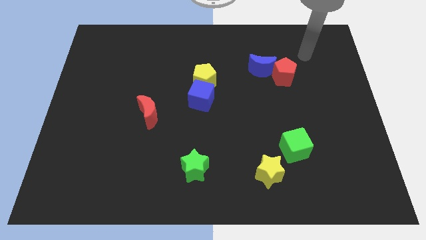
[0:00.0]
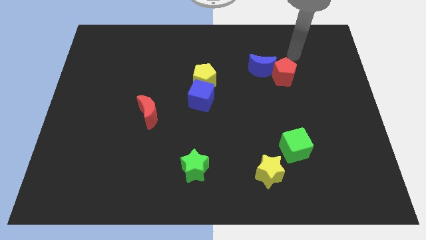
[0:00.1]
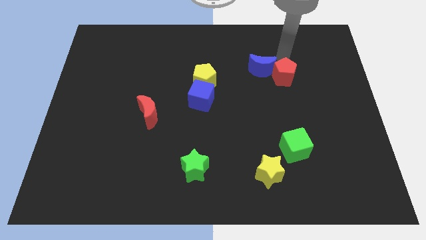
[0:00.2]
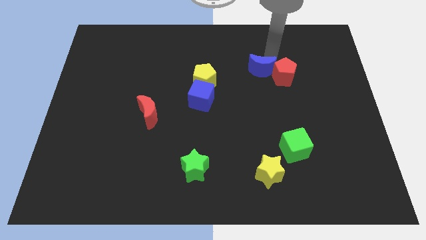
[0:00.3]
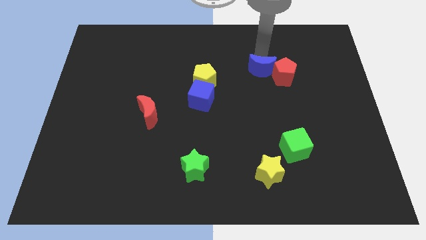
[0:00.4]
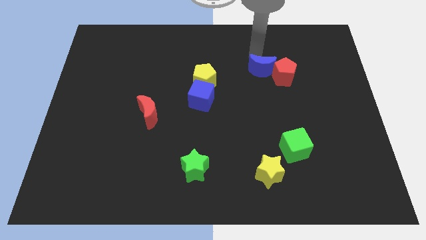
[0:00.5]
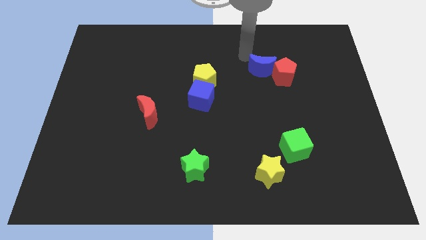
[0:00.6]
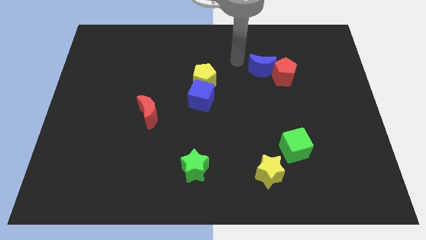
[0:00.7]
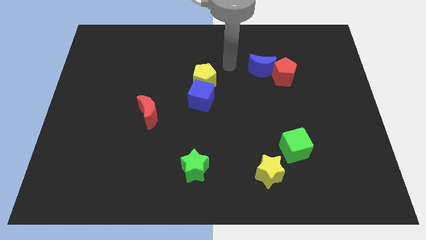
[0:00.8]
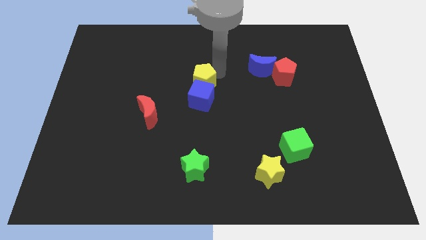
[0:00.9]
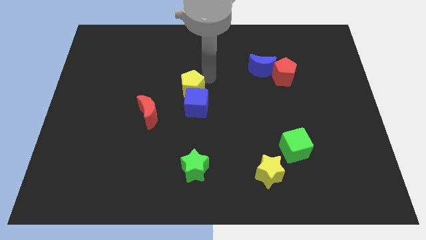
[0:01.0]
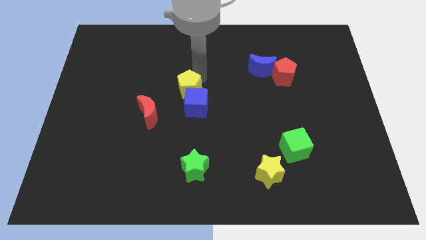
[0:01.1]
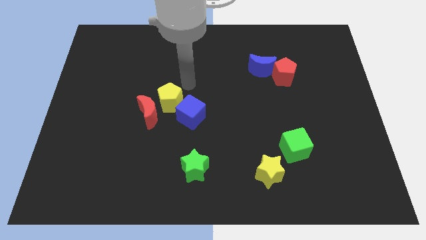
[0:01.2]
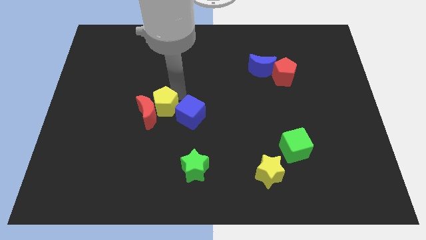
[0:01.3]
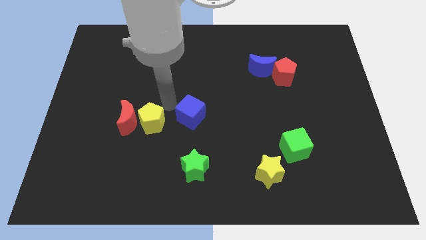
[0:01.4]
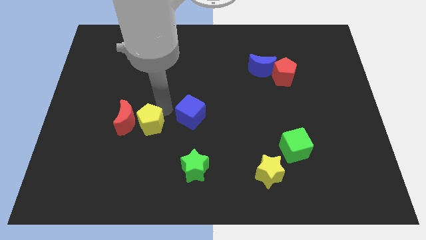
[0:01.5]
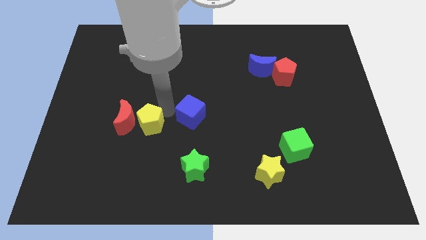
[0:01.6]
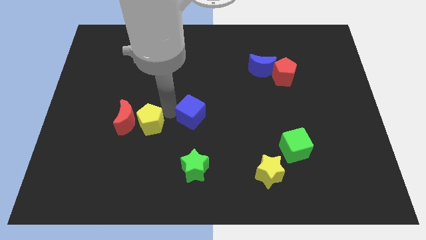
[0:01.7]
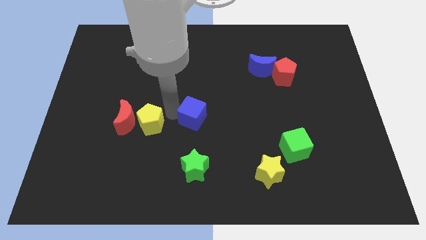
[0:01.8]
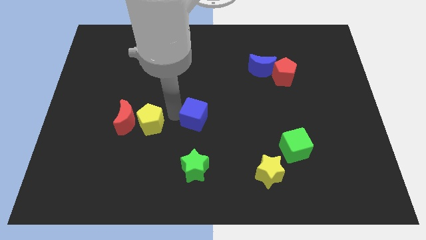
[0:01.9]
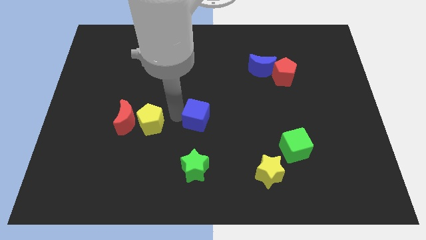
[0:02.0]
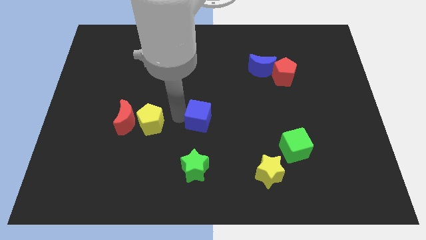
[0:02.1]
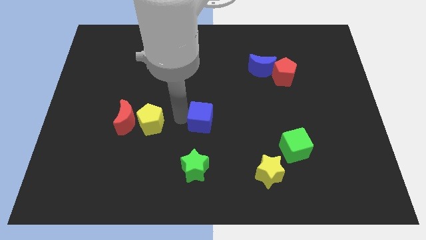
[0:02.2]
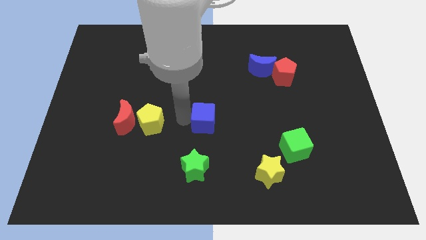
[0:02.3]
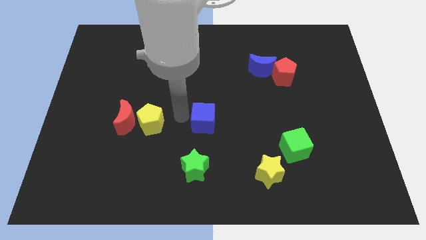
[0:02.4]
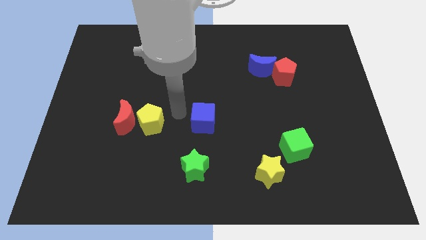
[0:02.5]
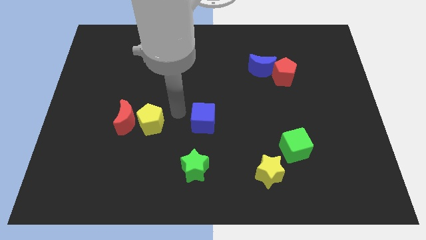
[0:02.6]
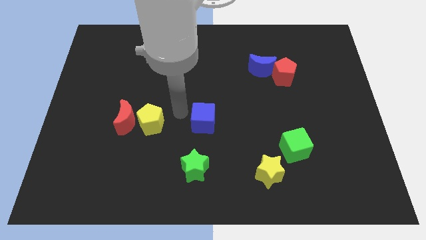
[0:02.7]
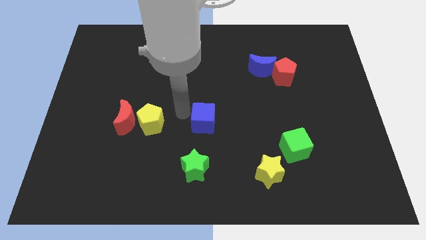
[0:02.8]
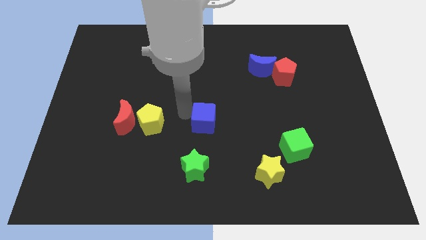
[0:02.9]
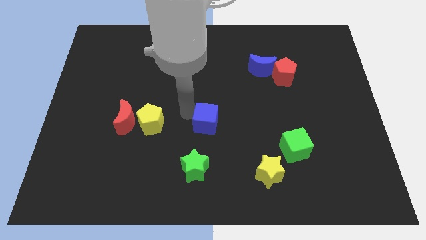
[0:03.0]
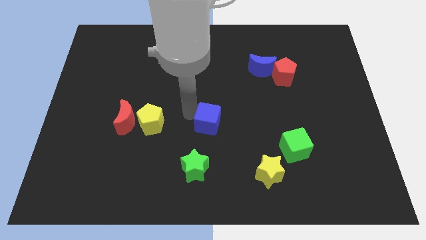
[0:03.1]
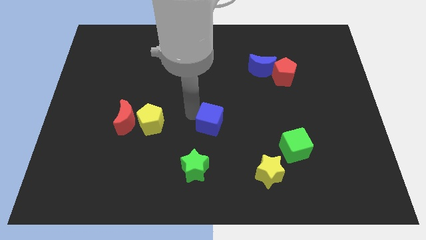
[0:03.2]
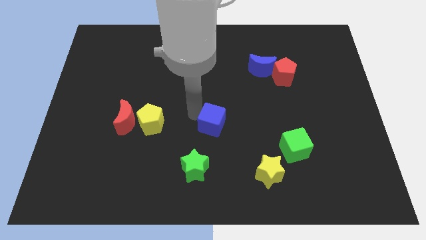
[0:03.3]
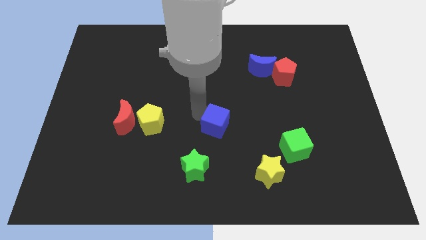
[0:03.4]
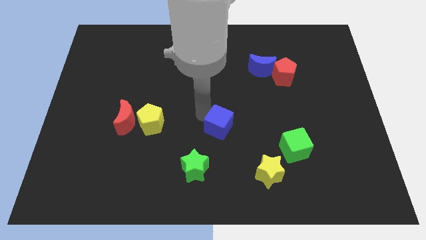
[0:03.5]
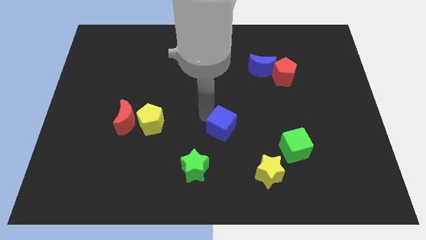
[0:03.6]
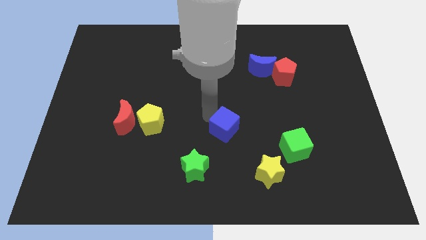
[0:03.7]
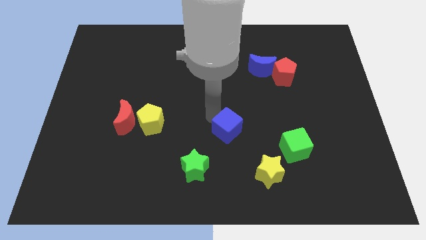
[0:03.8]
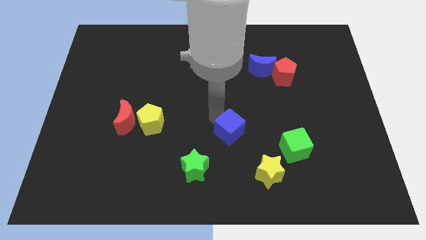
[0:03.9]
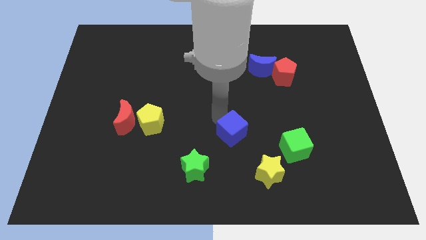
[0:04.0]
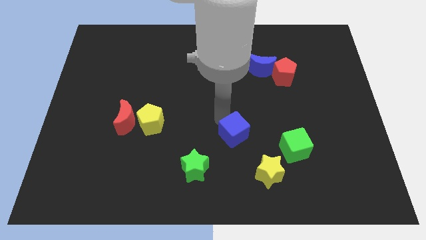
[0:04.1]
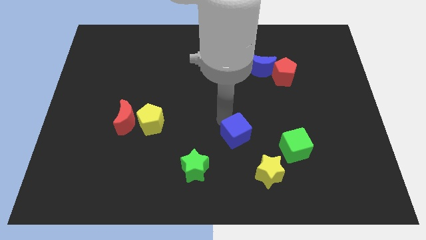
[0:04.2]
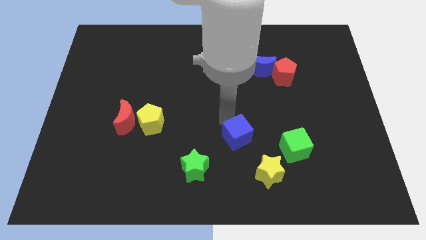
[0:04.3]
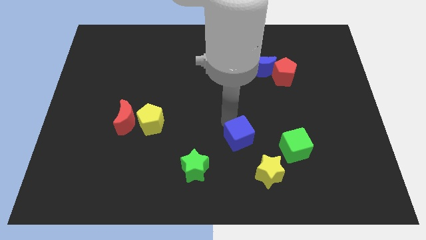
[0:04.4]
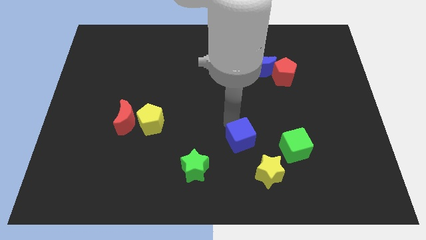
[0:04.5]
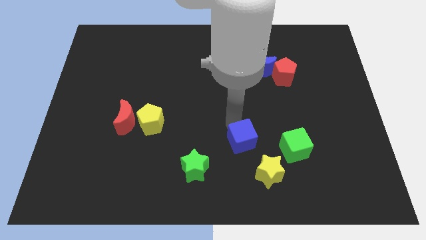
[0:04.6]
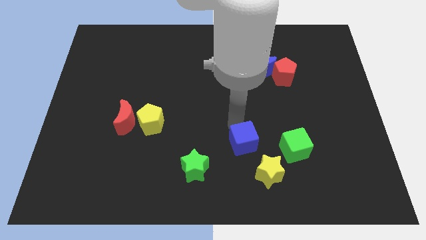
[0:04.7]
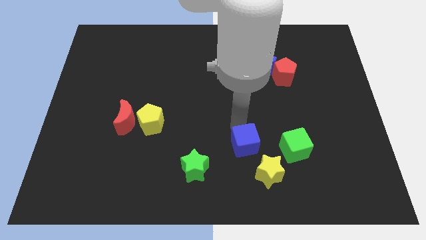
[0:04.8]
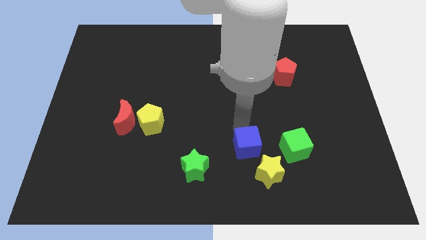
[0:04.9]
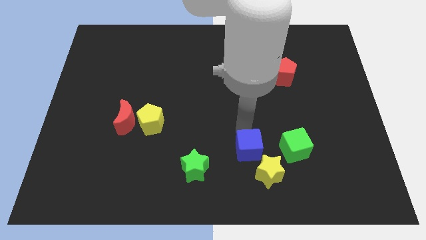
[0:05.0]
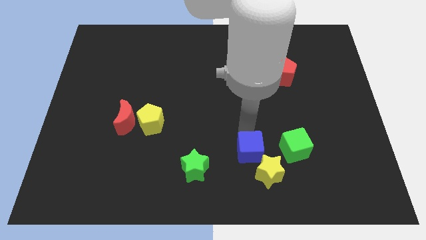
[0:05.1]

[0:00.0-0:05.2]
move the blue cube to the right of the green star

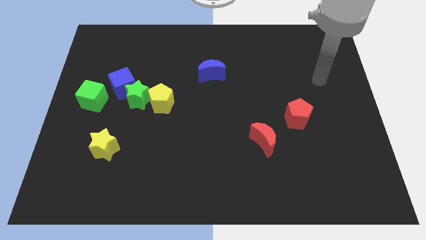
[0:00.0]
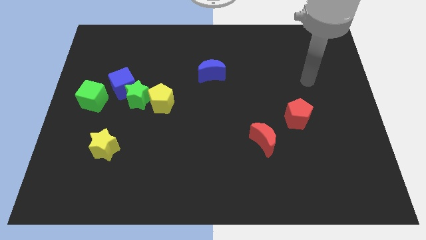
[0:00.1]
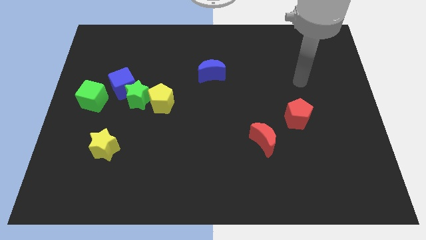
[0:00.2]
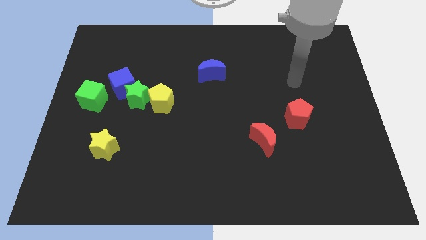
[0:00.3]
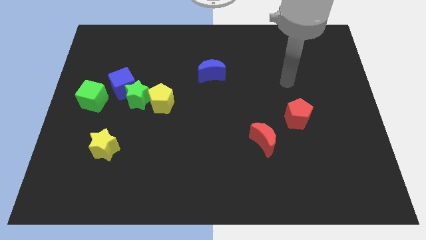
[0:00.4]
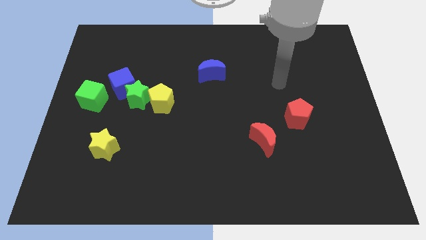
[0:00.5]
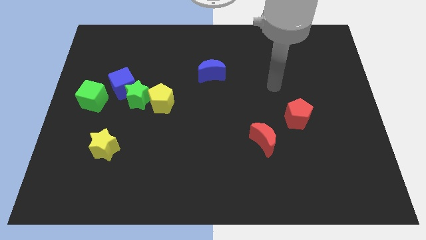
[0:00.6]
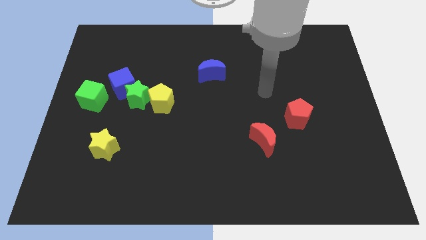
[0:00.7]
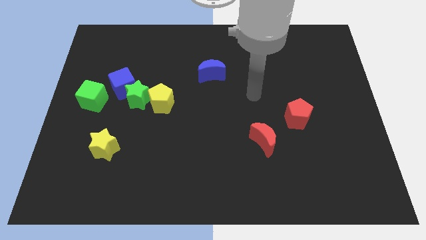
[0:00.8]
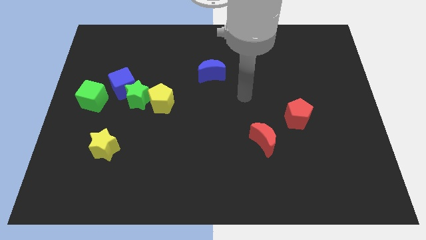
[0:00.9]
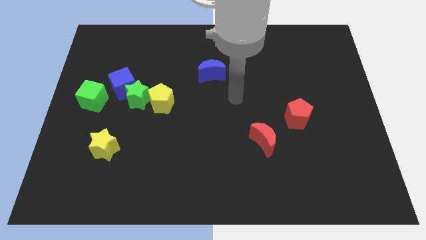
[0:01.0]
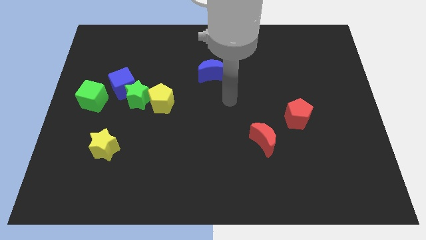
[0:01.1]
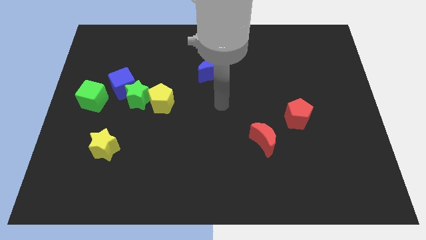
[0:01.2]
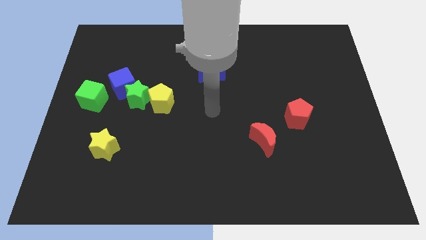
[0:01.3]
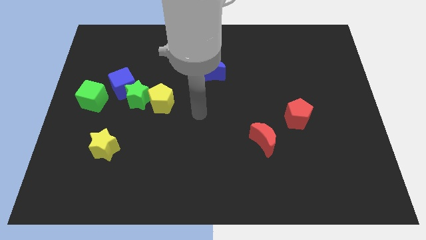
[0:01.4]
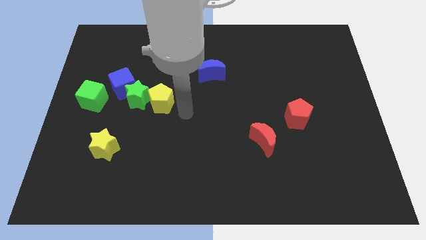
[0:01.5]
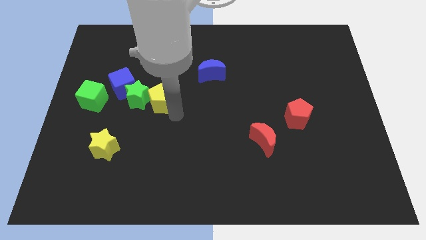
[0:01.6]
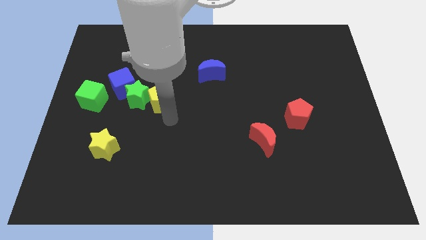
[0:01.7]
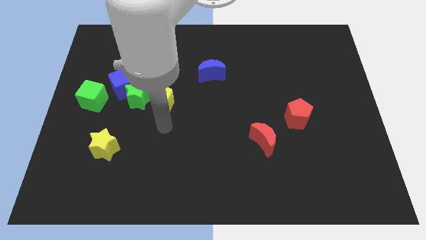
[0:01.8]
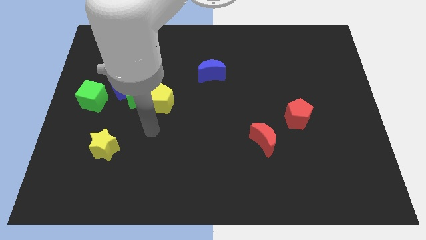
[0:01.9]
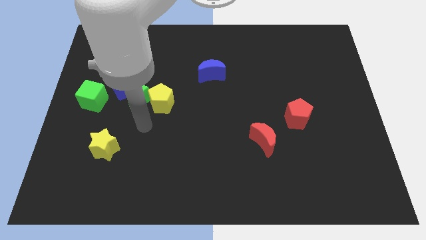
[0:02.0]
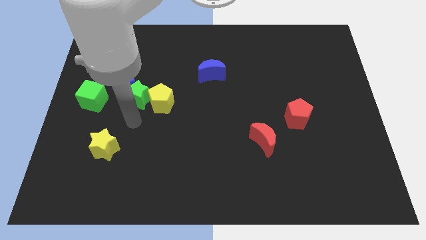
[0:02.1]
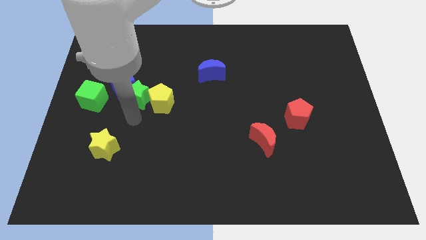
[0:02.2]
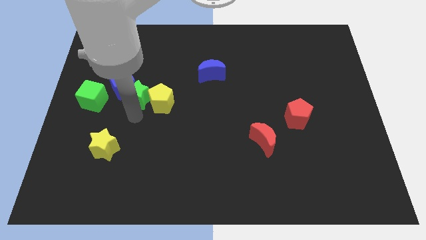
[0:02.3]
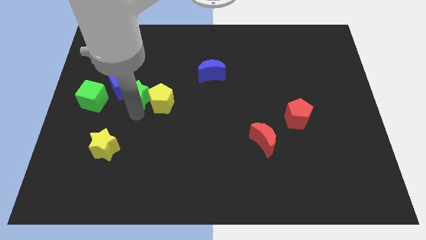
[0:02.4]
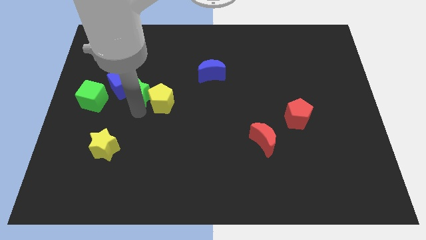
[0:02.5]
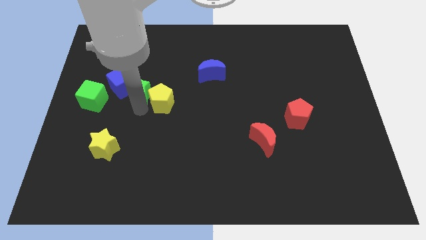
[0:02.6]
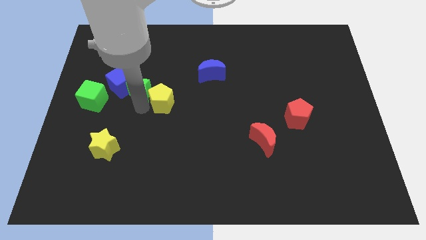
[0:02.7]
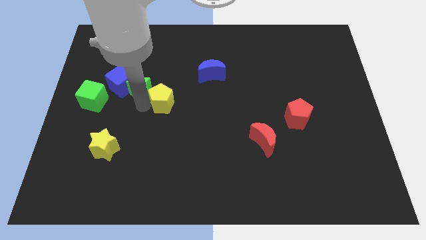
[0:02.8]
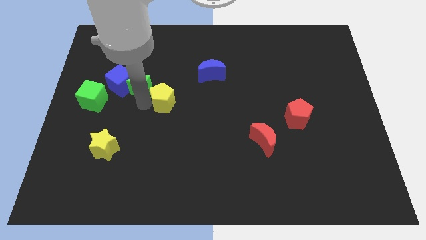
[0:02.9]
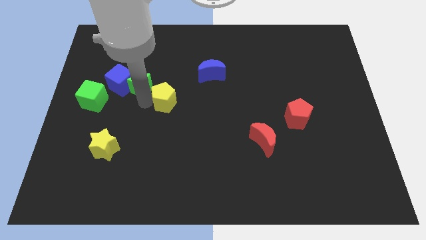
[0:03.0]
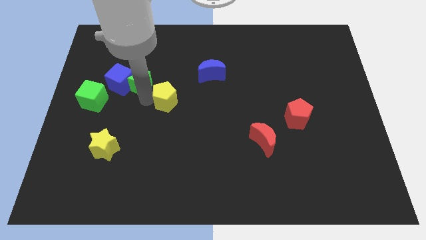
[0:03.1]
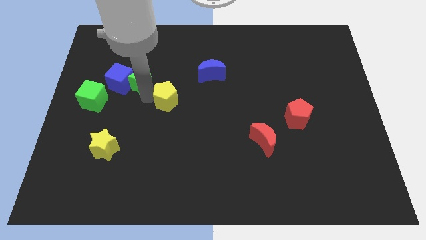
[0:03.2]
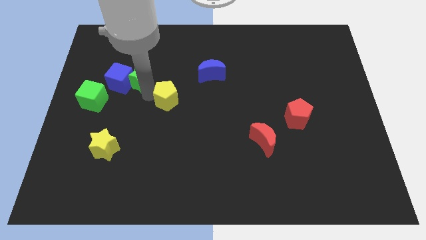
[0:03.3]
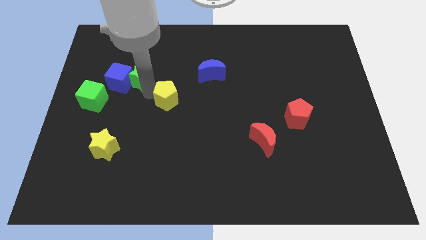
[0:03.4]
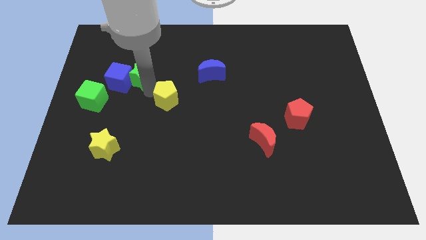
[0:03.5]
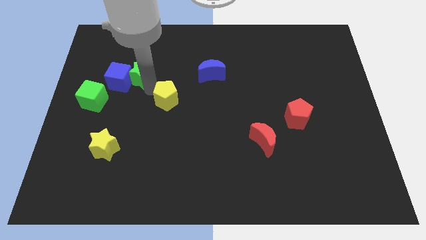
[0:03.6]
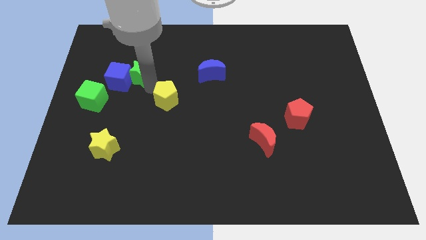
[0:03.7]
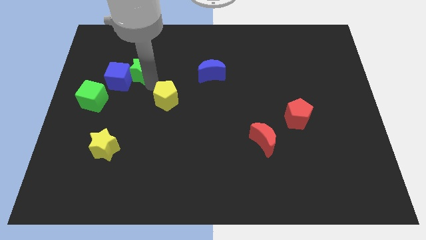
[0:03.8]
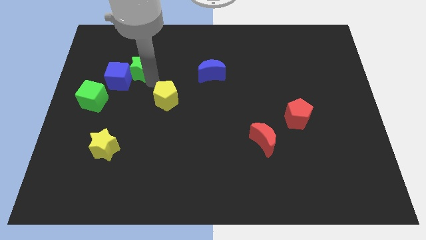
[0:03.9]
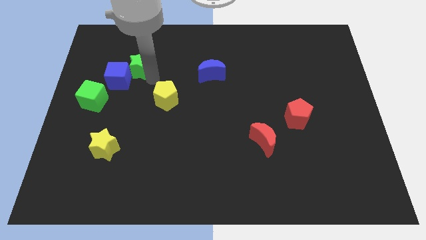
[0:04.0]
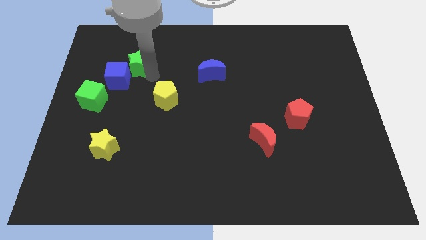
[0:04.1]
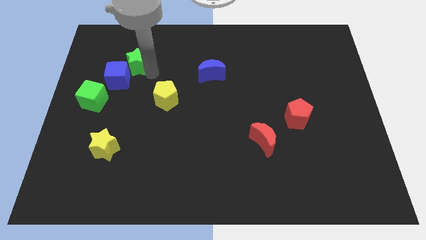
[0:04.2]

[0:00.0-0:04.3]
put the green star to the top of the blue cube
